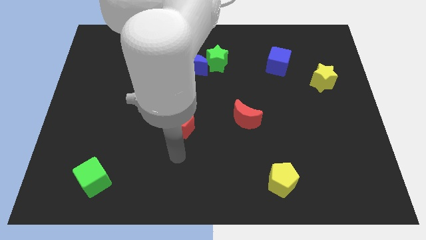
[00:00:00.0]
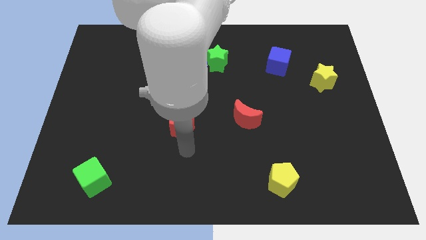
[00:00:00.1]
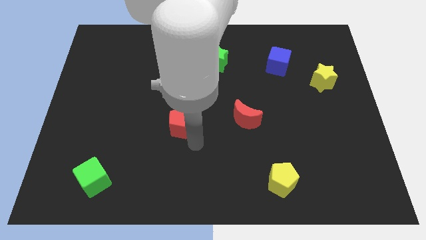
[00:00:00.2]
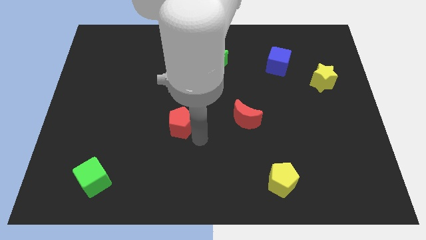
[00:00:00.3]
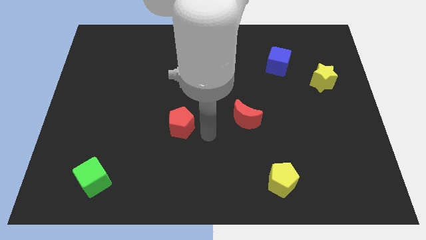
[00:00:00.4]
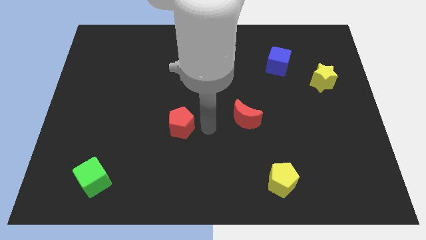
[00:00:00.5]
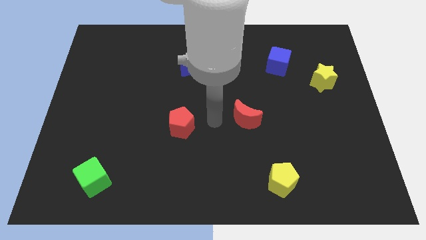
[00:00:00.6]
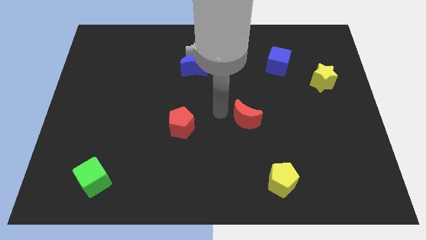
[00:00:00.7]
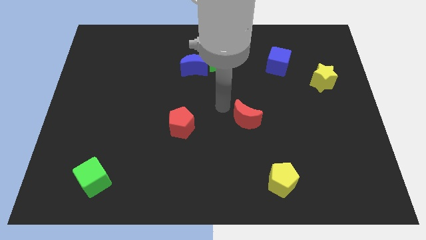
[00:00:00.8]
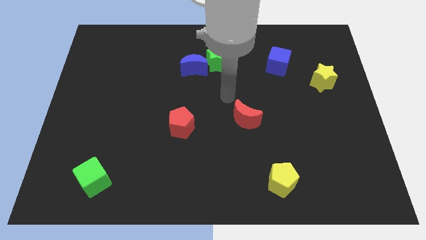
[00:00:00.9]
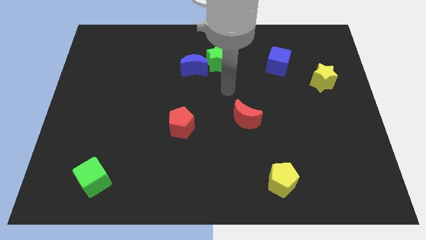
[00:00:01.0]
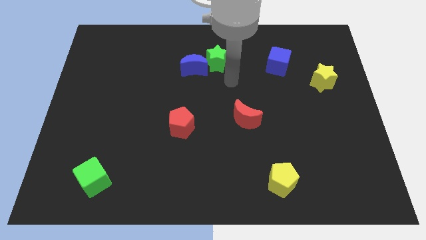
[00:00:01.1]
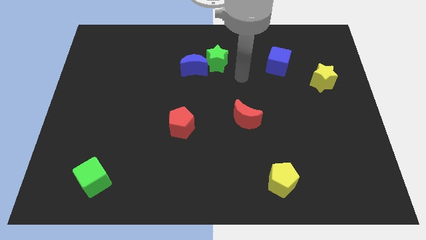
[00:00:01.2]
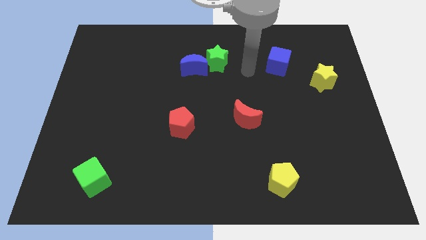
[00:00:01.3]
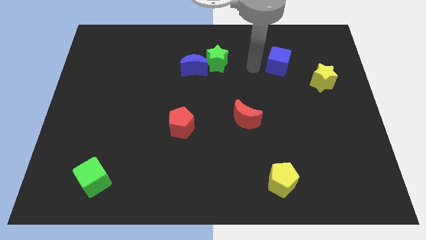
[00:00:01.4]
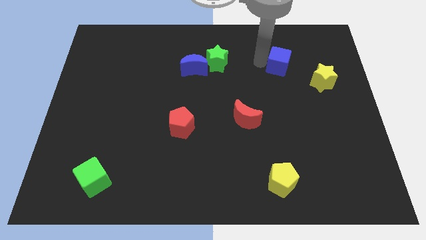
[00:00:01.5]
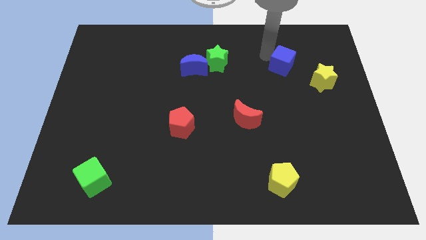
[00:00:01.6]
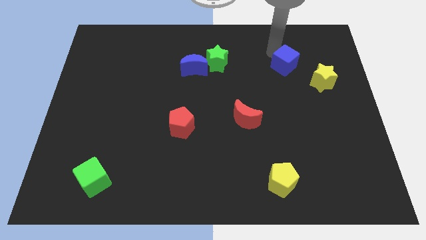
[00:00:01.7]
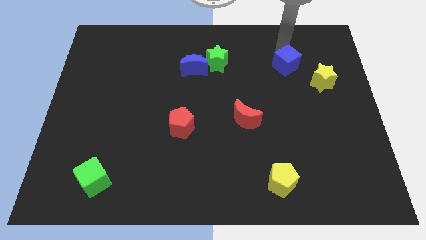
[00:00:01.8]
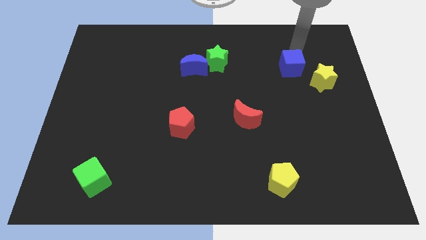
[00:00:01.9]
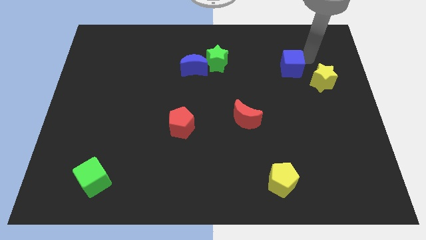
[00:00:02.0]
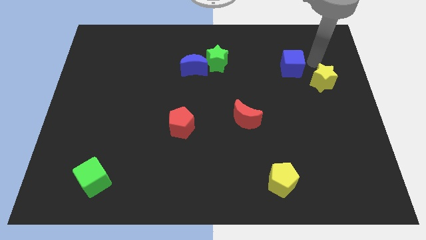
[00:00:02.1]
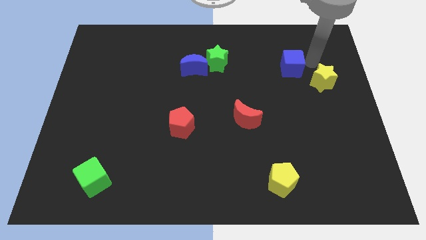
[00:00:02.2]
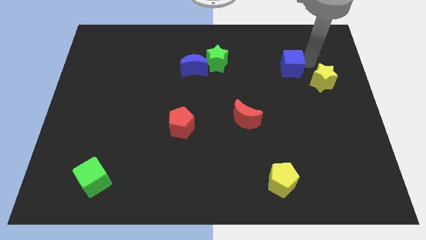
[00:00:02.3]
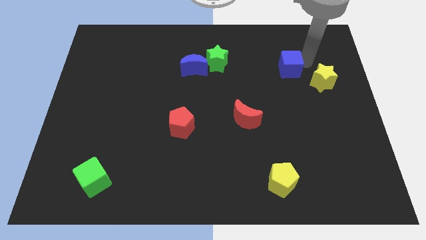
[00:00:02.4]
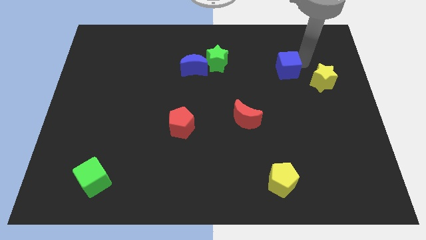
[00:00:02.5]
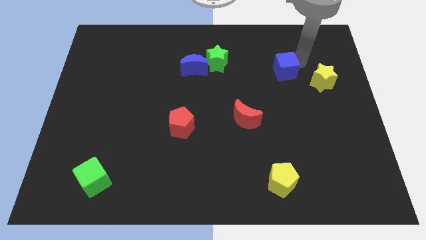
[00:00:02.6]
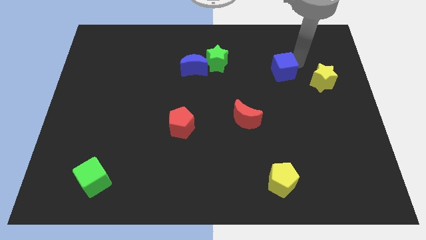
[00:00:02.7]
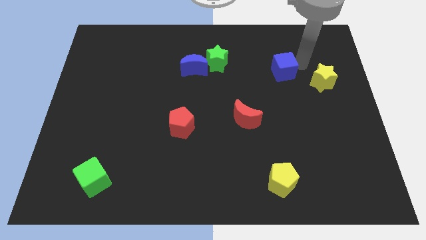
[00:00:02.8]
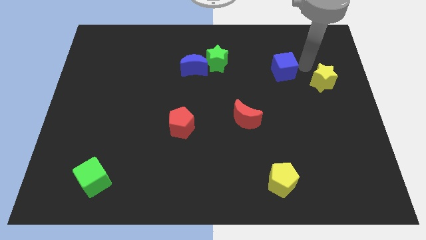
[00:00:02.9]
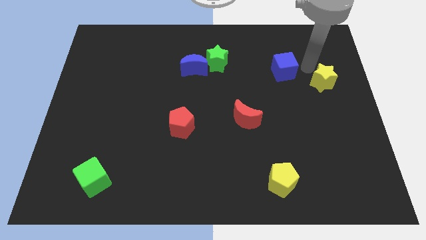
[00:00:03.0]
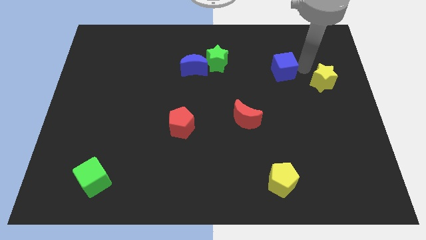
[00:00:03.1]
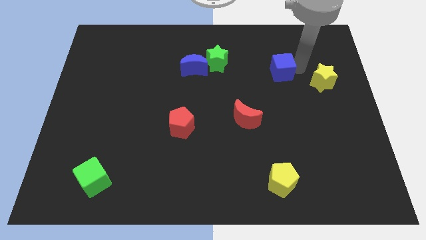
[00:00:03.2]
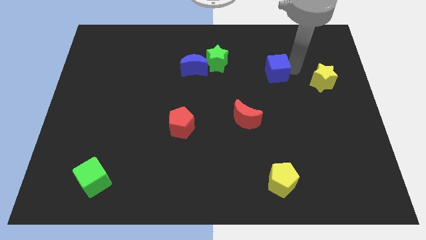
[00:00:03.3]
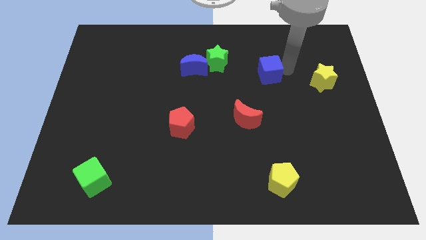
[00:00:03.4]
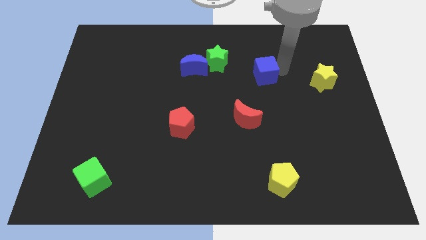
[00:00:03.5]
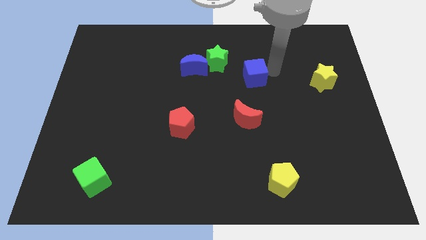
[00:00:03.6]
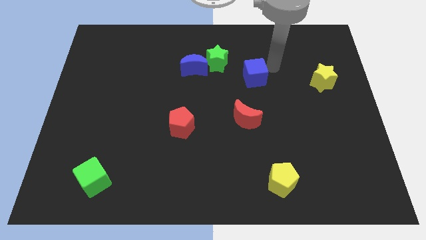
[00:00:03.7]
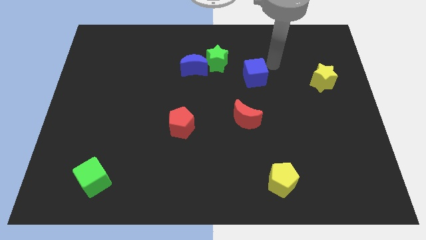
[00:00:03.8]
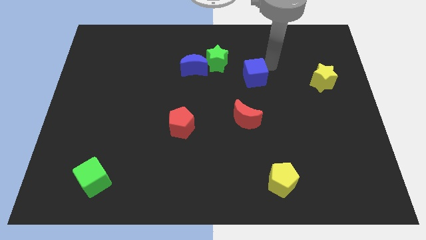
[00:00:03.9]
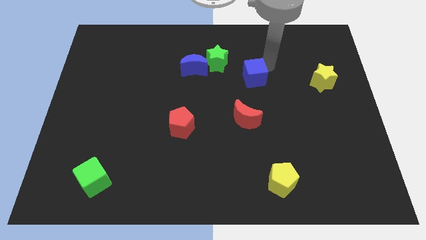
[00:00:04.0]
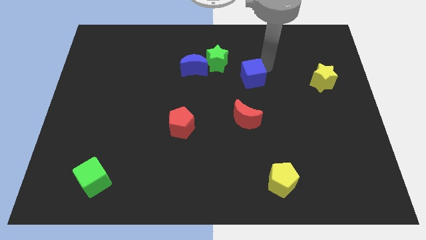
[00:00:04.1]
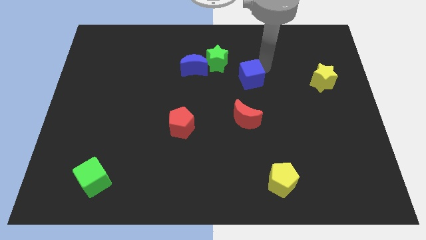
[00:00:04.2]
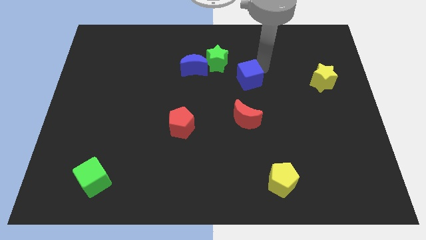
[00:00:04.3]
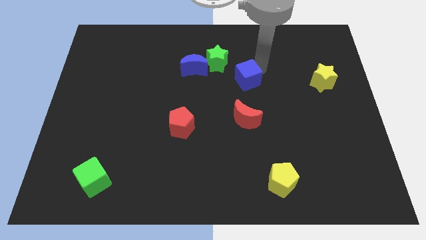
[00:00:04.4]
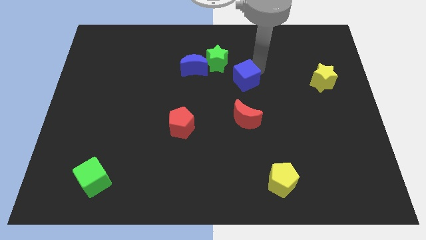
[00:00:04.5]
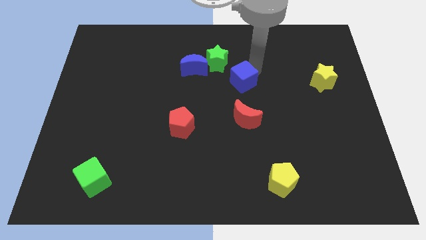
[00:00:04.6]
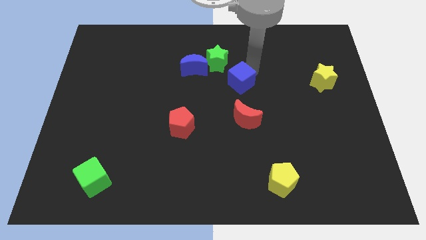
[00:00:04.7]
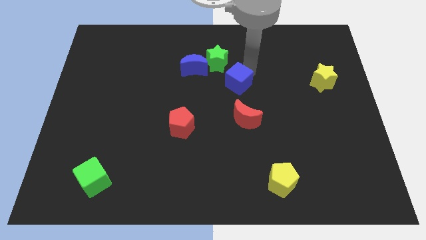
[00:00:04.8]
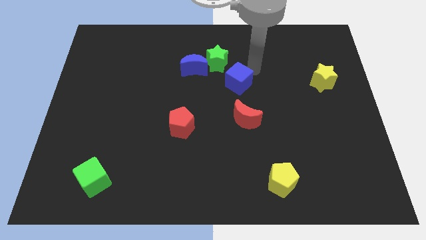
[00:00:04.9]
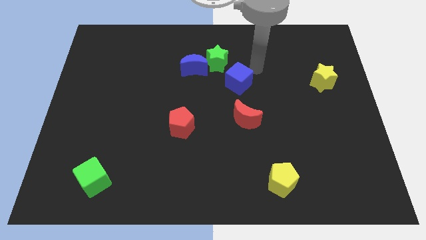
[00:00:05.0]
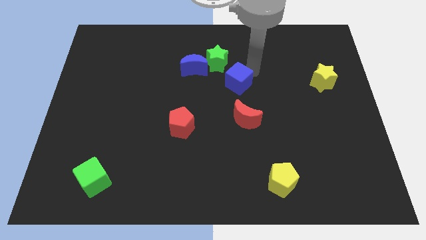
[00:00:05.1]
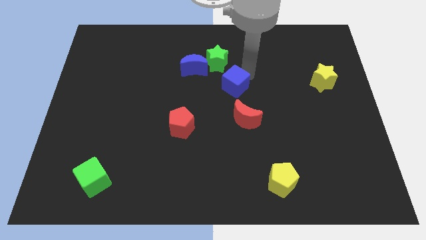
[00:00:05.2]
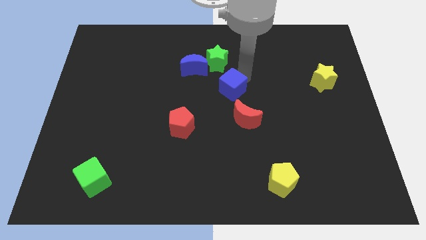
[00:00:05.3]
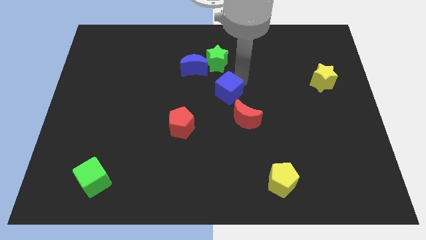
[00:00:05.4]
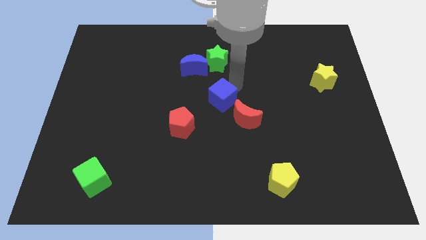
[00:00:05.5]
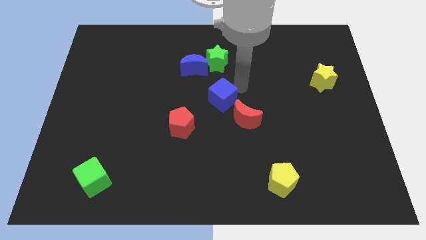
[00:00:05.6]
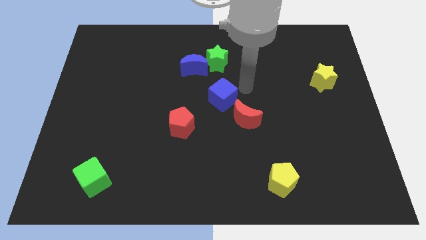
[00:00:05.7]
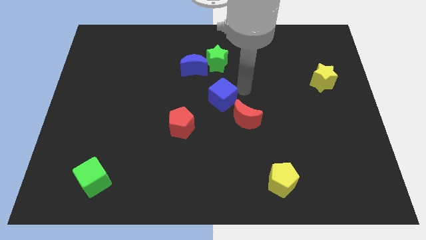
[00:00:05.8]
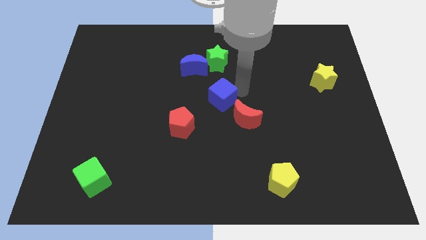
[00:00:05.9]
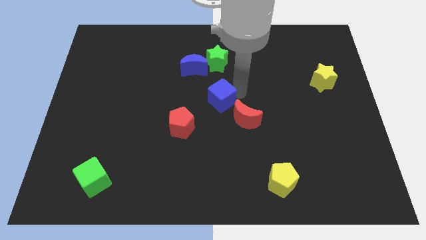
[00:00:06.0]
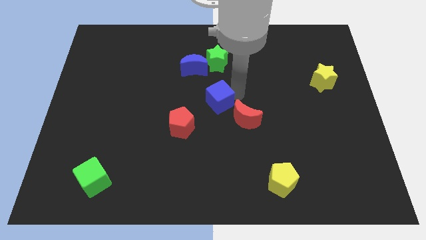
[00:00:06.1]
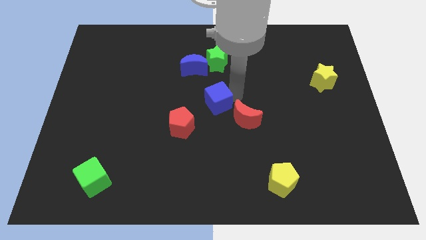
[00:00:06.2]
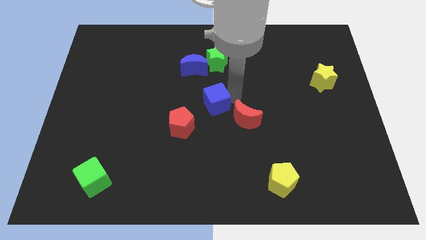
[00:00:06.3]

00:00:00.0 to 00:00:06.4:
slide the blue cube to the left of the red moon

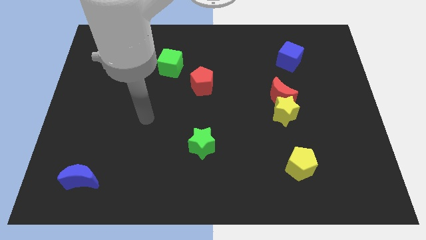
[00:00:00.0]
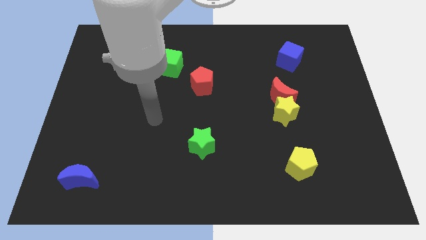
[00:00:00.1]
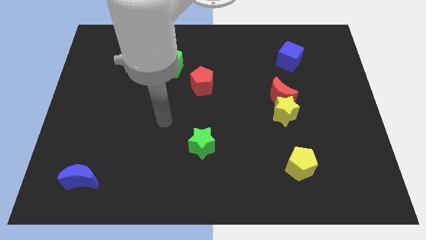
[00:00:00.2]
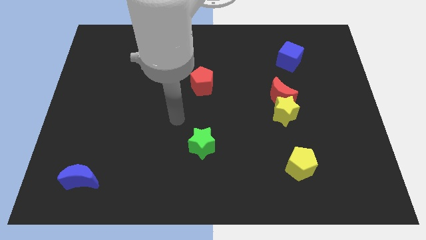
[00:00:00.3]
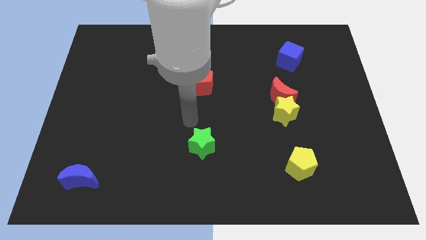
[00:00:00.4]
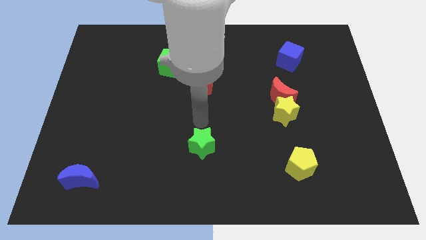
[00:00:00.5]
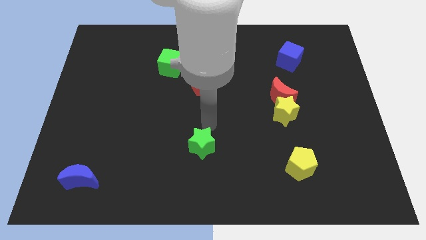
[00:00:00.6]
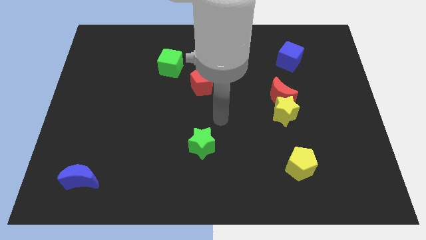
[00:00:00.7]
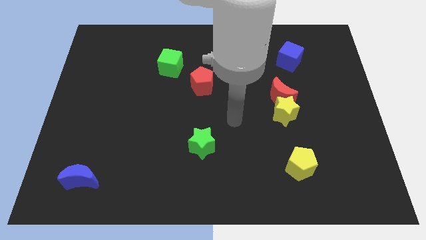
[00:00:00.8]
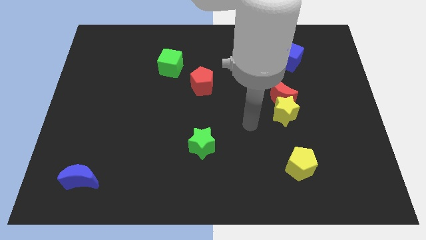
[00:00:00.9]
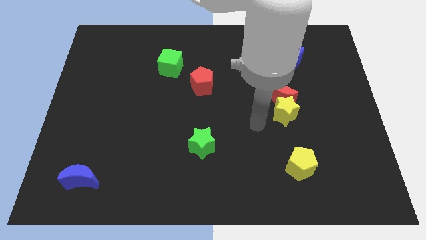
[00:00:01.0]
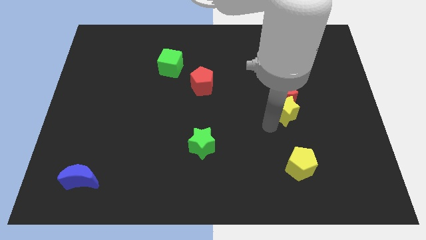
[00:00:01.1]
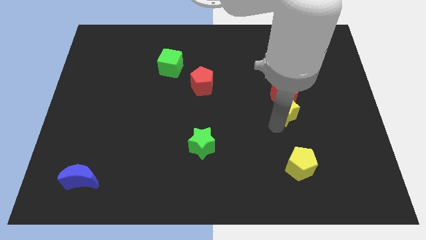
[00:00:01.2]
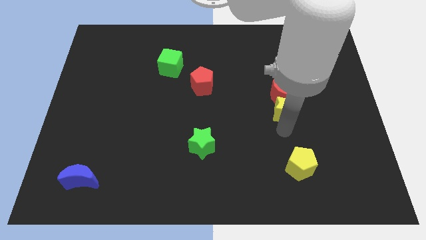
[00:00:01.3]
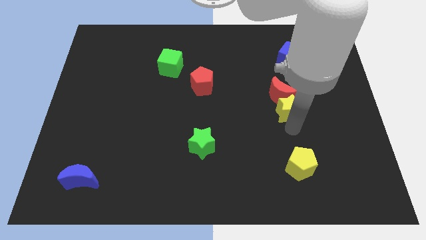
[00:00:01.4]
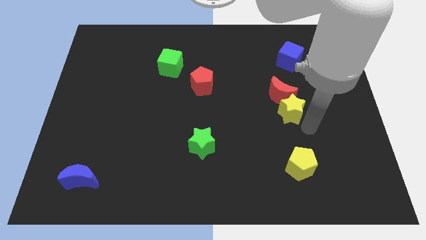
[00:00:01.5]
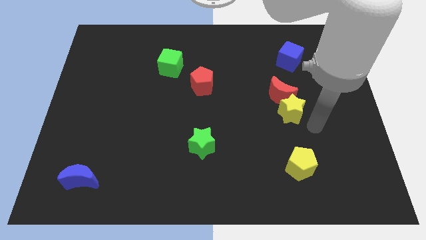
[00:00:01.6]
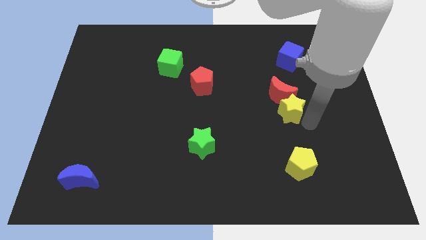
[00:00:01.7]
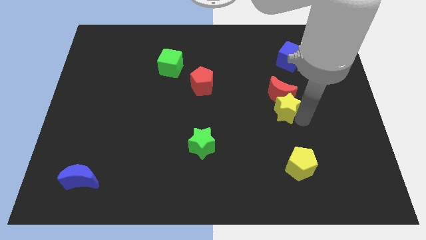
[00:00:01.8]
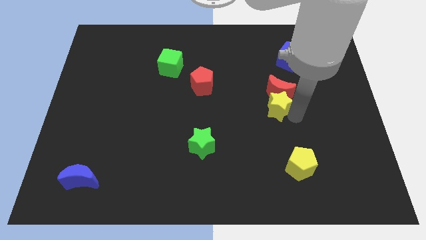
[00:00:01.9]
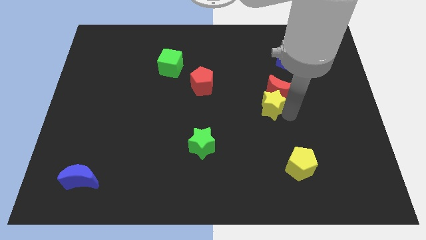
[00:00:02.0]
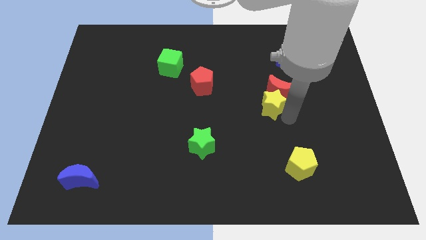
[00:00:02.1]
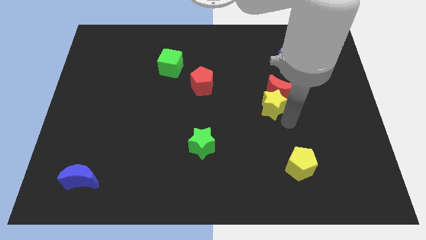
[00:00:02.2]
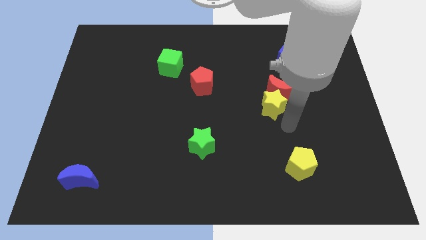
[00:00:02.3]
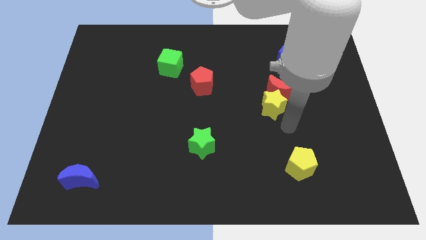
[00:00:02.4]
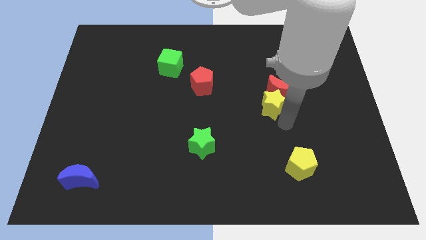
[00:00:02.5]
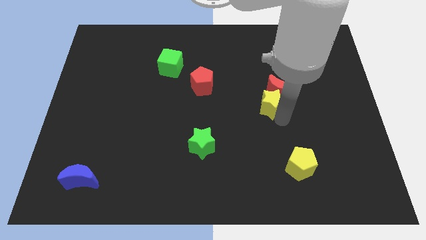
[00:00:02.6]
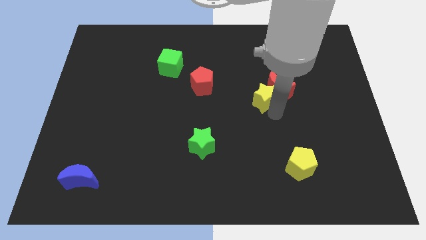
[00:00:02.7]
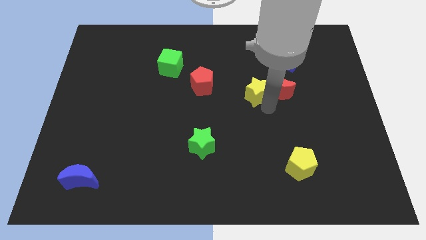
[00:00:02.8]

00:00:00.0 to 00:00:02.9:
put the yellow star diagonally up and to the left of the red moon
